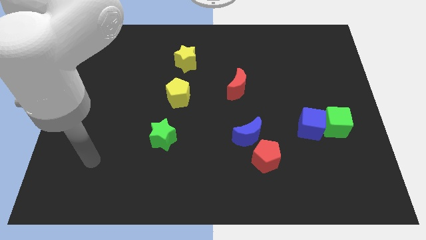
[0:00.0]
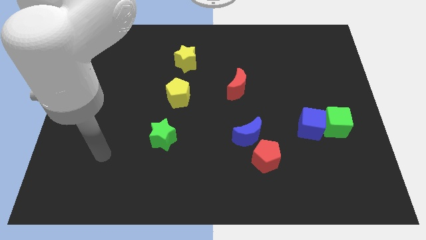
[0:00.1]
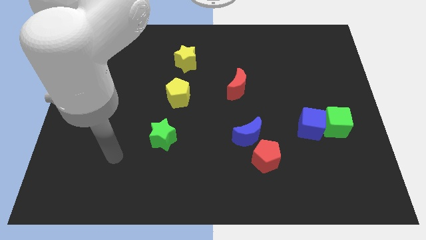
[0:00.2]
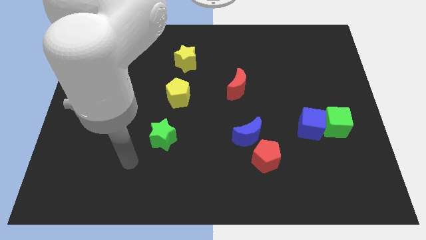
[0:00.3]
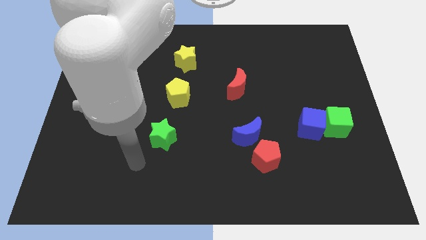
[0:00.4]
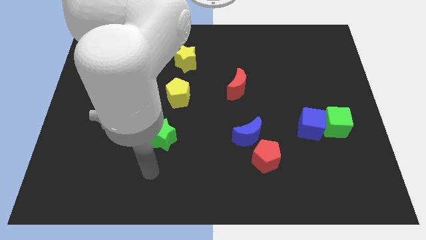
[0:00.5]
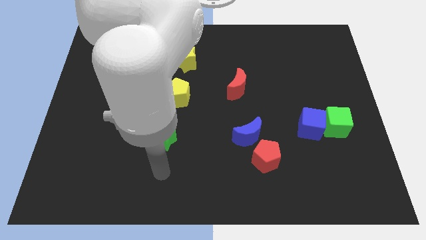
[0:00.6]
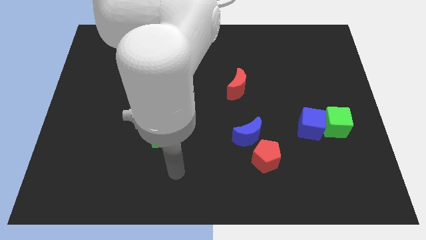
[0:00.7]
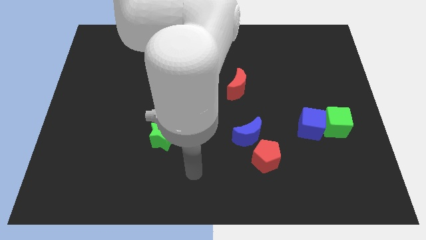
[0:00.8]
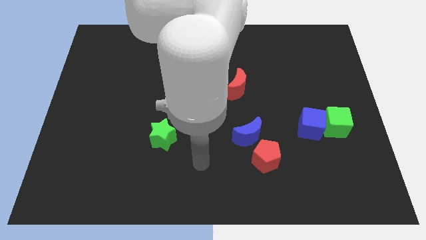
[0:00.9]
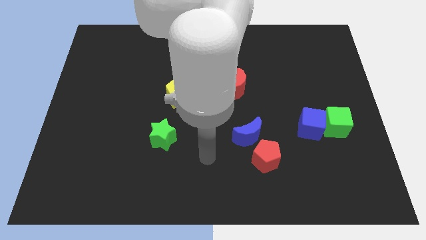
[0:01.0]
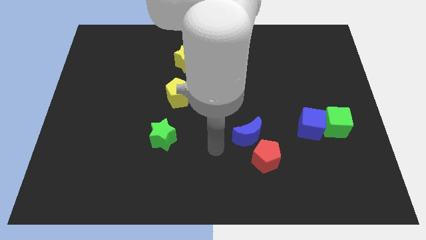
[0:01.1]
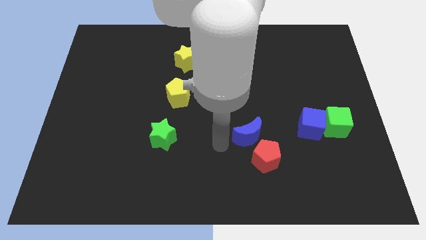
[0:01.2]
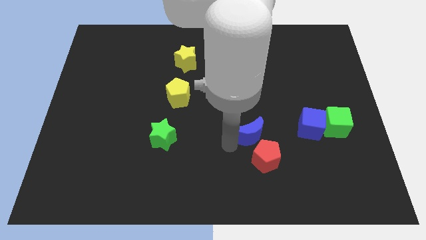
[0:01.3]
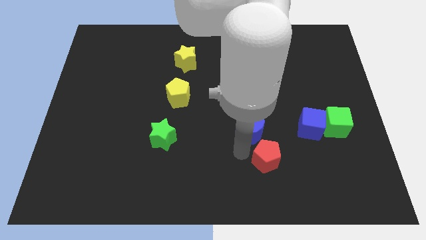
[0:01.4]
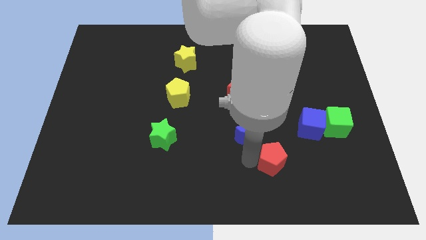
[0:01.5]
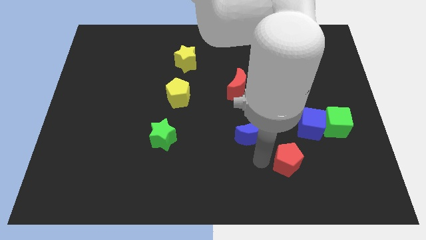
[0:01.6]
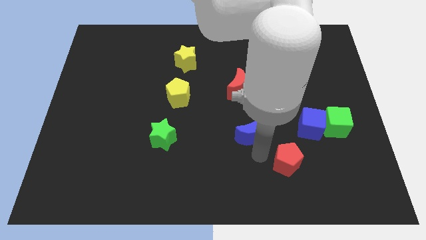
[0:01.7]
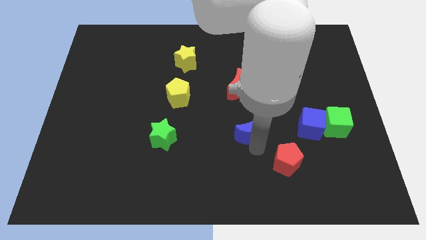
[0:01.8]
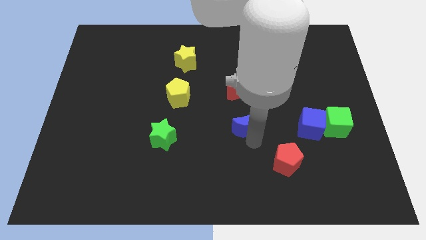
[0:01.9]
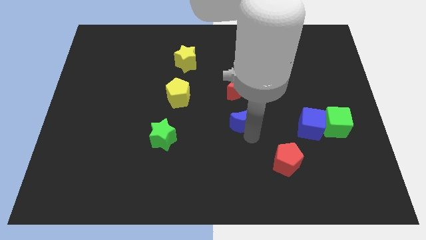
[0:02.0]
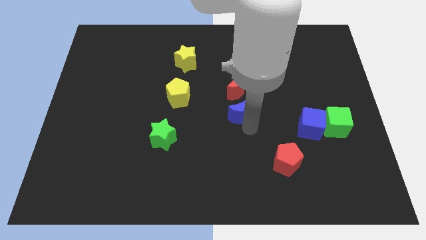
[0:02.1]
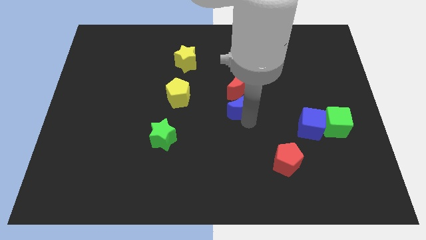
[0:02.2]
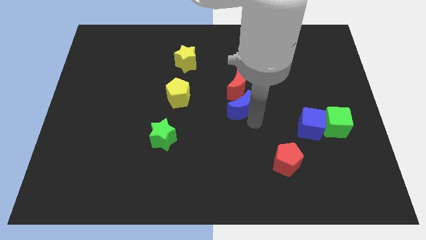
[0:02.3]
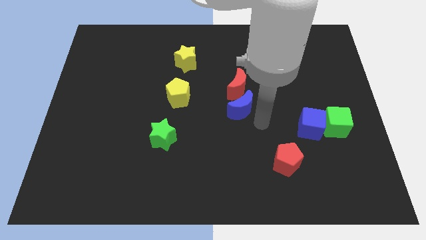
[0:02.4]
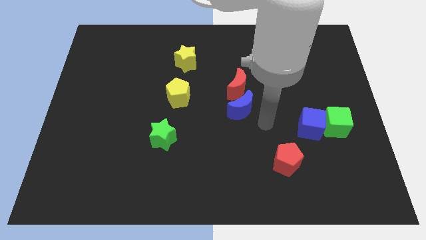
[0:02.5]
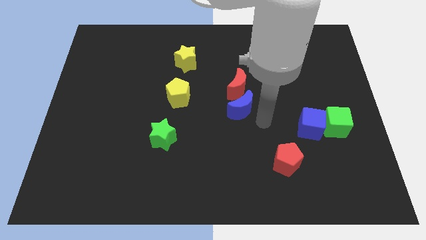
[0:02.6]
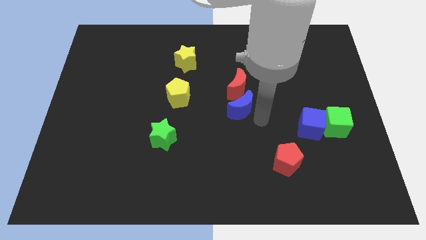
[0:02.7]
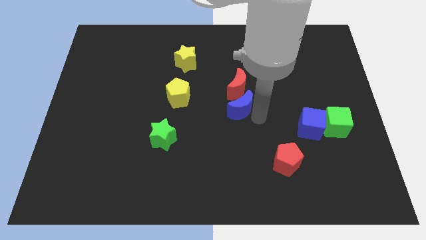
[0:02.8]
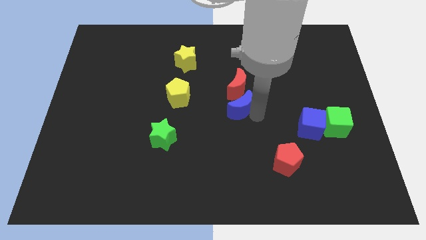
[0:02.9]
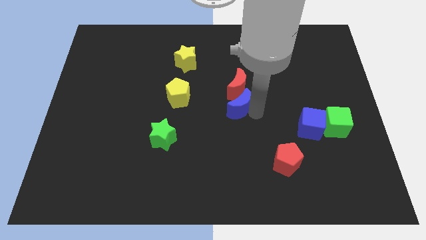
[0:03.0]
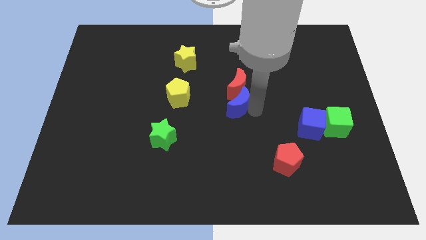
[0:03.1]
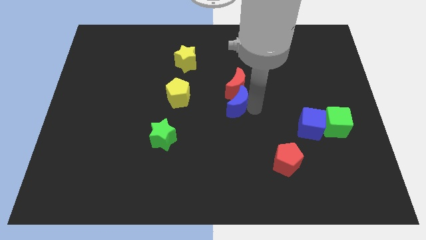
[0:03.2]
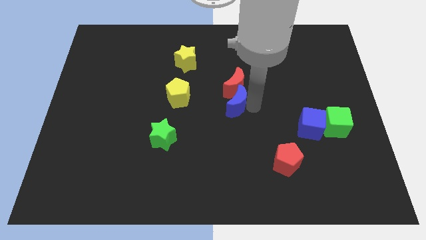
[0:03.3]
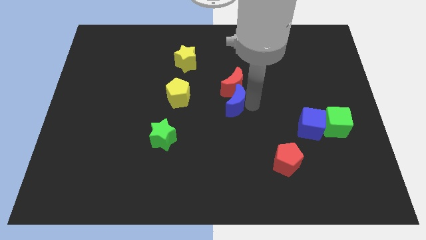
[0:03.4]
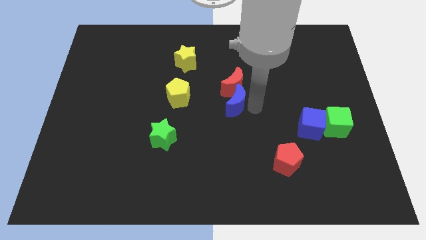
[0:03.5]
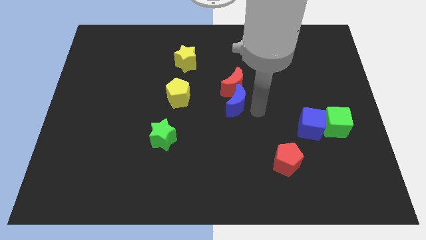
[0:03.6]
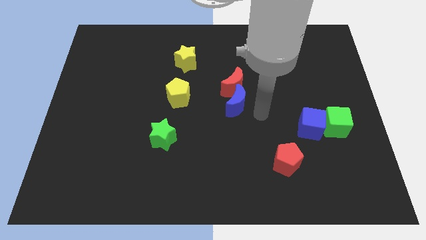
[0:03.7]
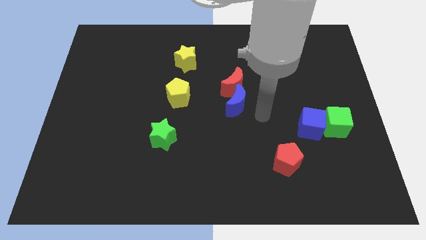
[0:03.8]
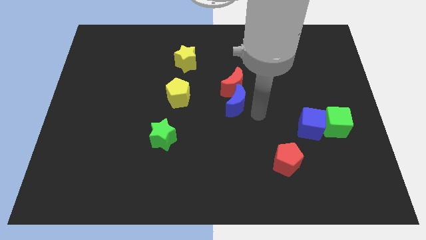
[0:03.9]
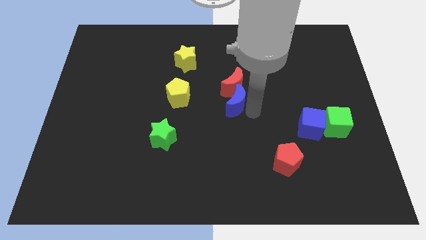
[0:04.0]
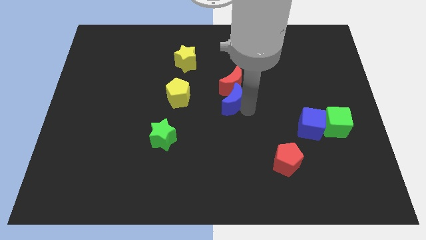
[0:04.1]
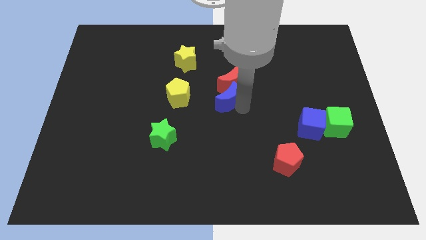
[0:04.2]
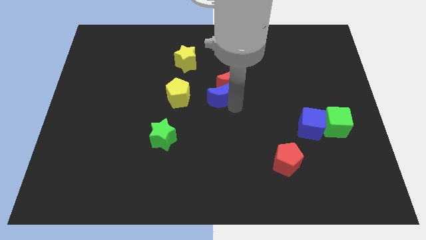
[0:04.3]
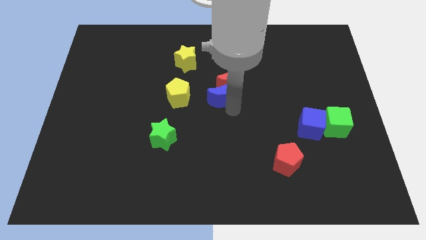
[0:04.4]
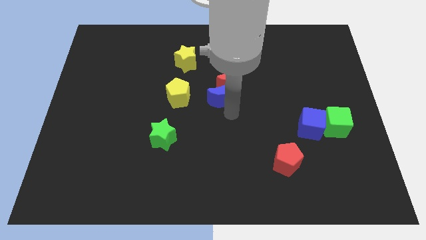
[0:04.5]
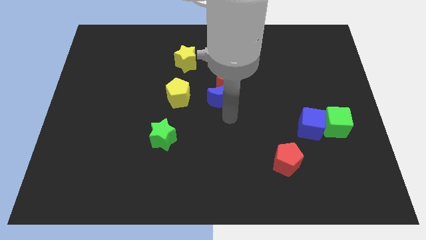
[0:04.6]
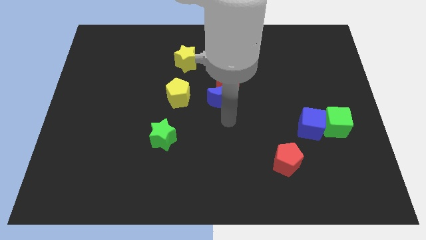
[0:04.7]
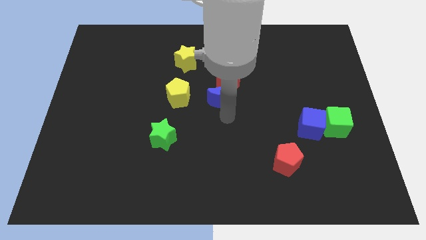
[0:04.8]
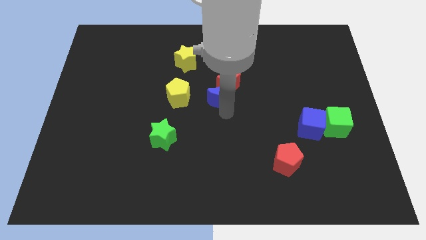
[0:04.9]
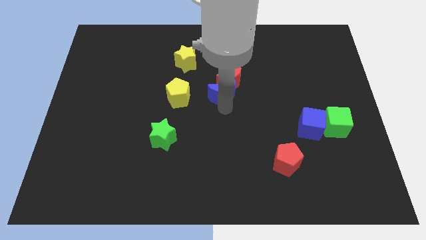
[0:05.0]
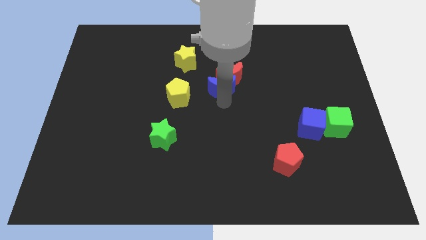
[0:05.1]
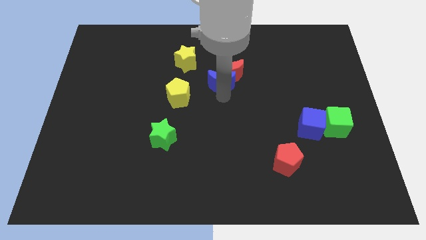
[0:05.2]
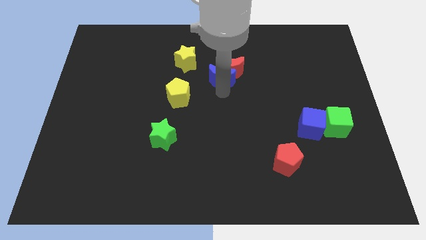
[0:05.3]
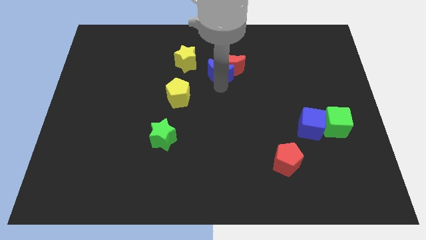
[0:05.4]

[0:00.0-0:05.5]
put the blue moon to the right side of the yellow star

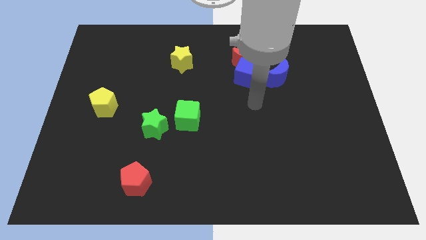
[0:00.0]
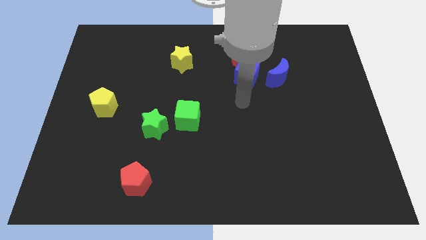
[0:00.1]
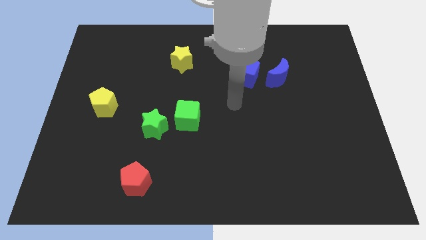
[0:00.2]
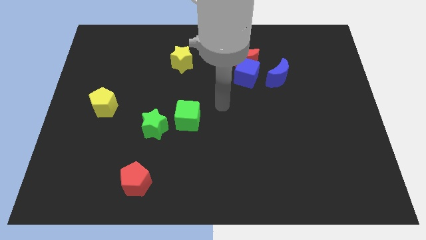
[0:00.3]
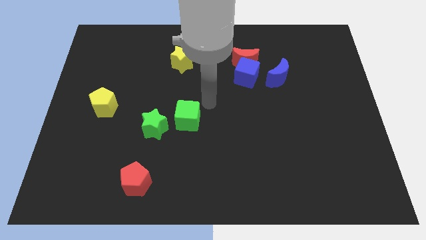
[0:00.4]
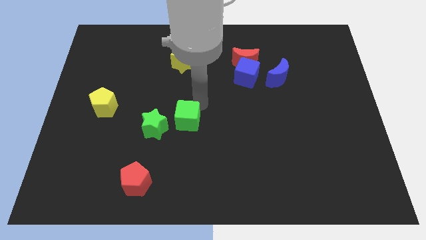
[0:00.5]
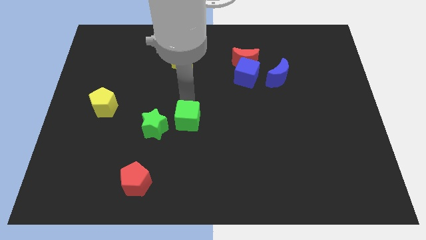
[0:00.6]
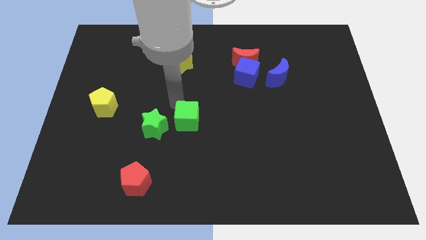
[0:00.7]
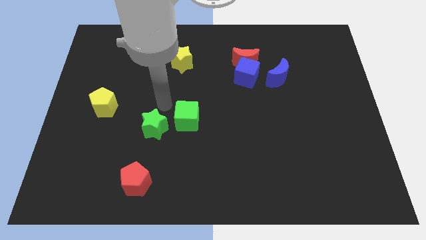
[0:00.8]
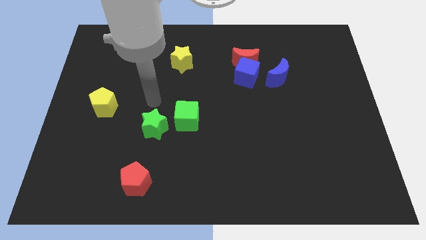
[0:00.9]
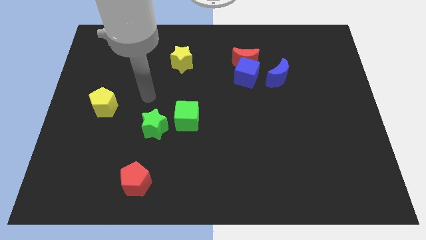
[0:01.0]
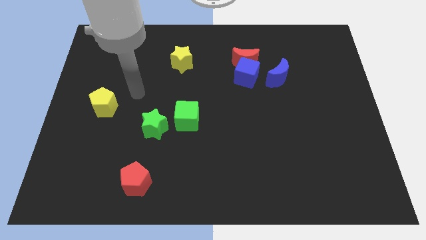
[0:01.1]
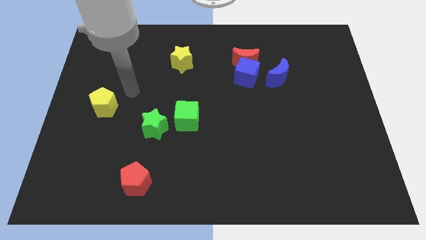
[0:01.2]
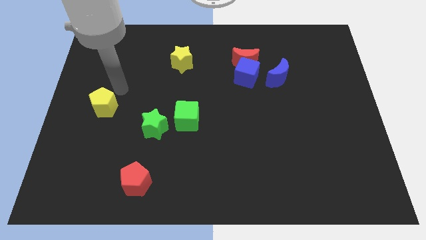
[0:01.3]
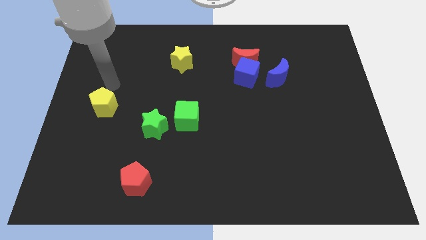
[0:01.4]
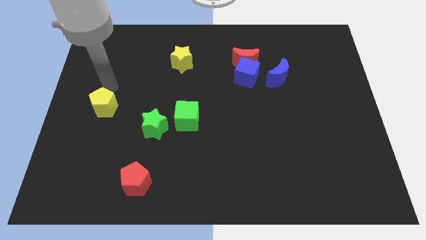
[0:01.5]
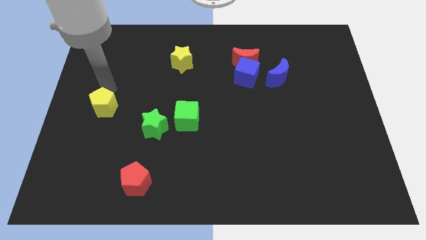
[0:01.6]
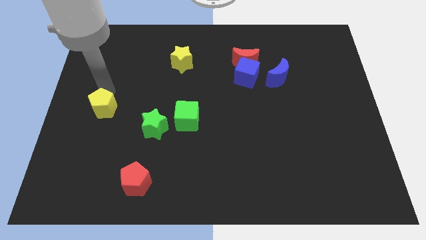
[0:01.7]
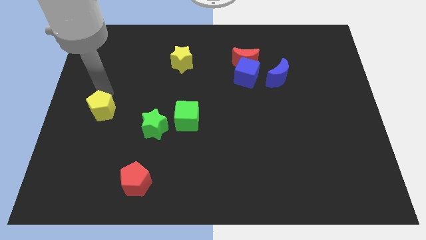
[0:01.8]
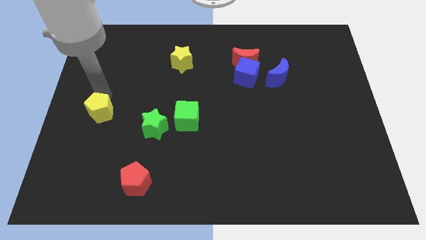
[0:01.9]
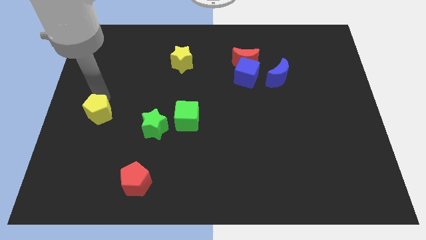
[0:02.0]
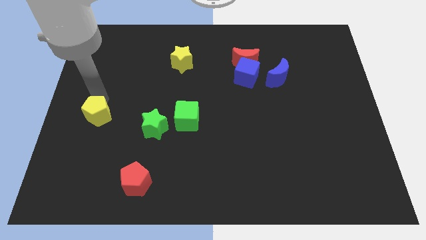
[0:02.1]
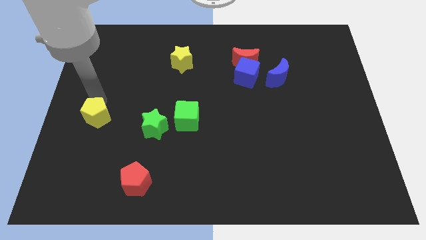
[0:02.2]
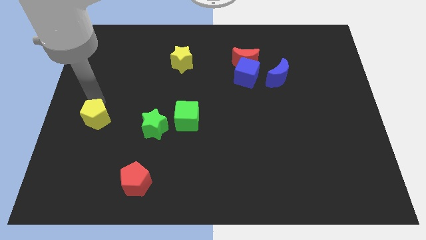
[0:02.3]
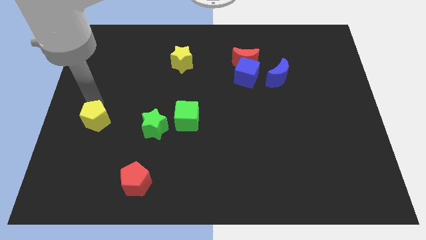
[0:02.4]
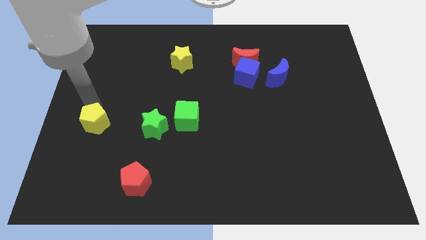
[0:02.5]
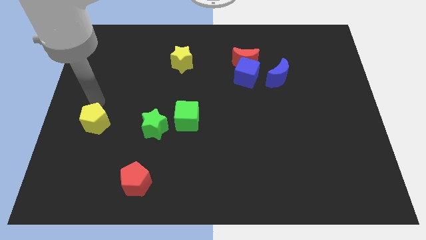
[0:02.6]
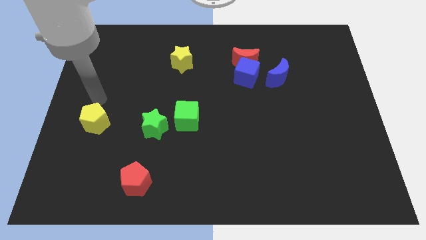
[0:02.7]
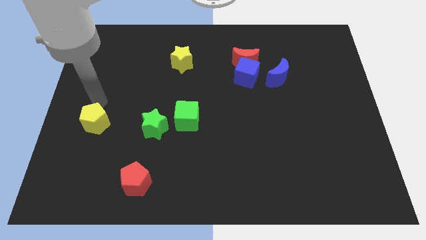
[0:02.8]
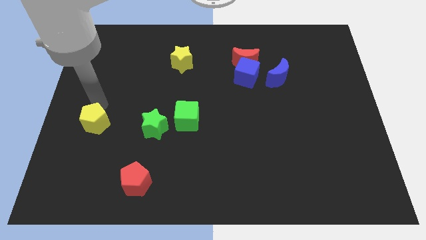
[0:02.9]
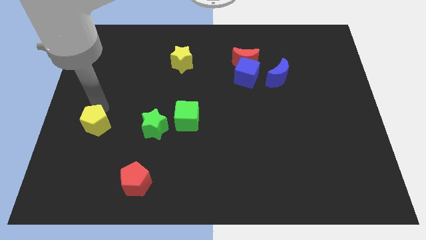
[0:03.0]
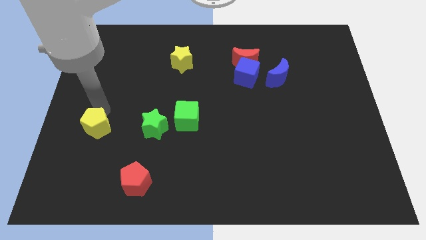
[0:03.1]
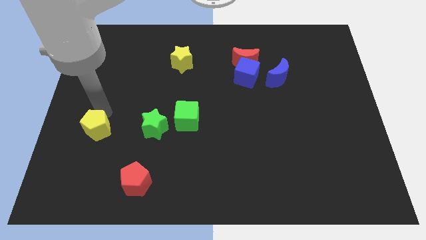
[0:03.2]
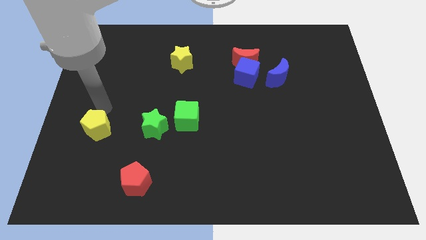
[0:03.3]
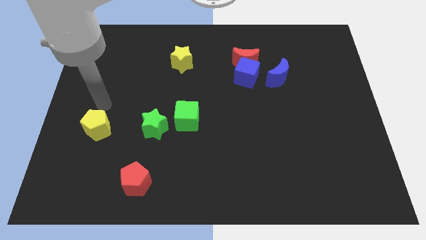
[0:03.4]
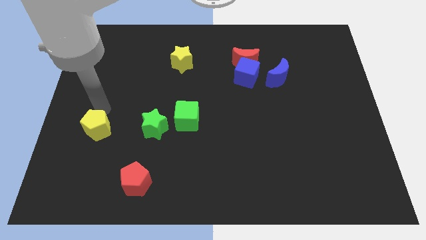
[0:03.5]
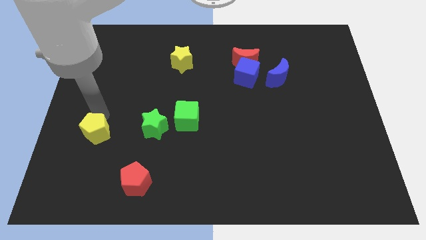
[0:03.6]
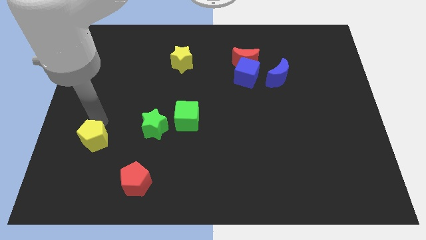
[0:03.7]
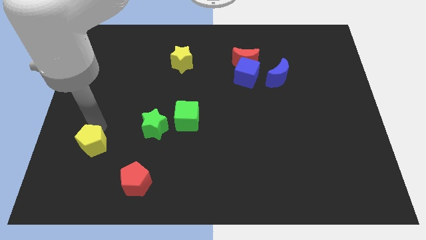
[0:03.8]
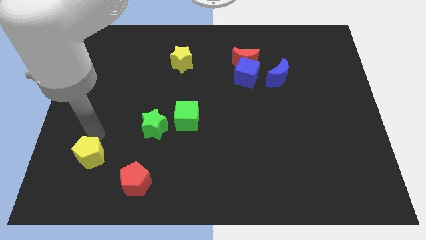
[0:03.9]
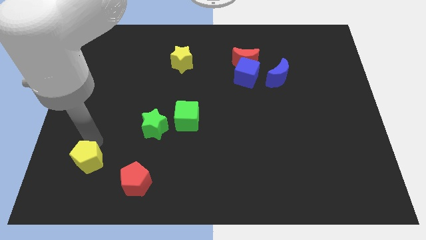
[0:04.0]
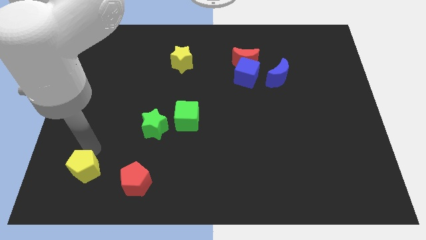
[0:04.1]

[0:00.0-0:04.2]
put the yellow pentagon to the left of the red pentagon
